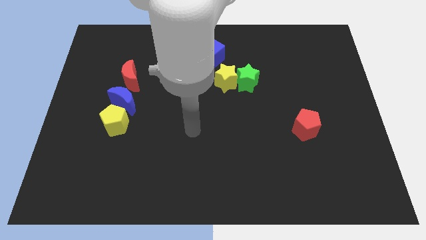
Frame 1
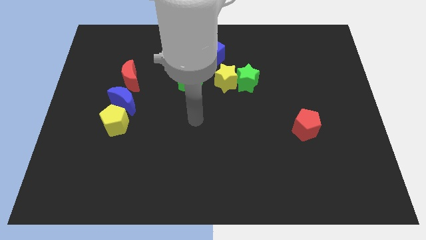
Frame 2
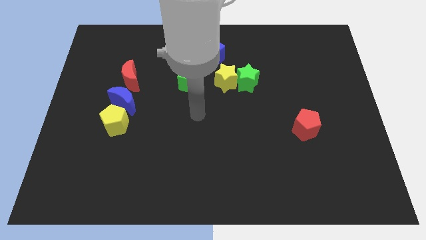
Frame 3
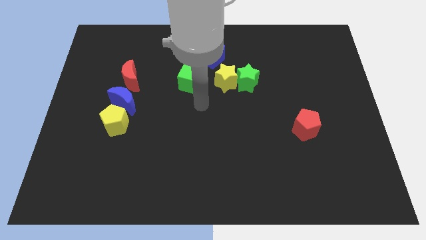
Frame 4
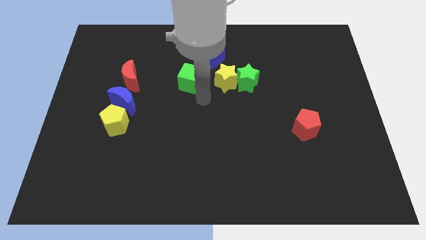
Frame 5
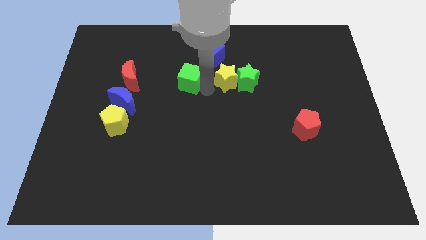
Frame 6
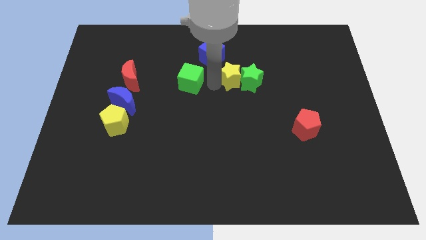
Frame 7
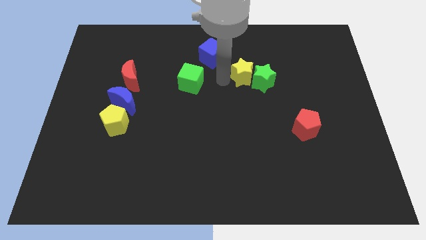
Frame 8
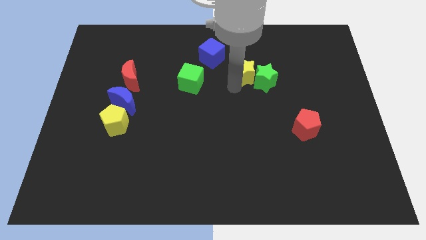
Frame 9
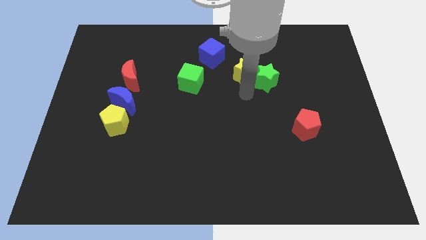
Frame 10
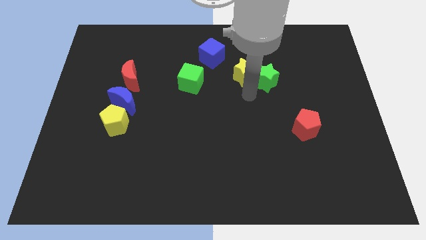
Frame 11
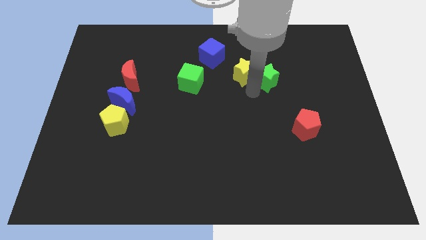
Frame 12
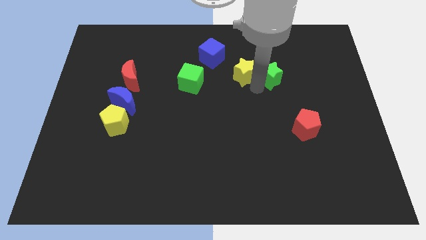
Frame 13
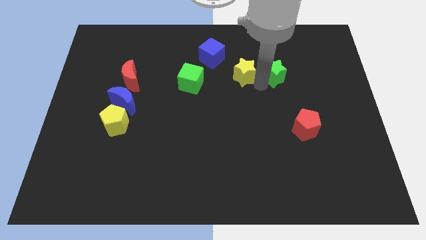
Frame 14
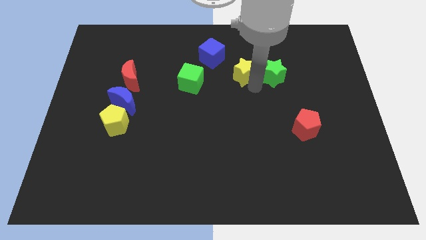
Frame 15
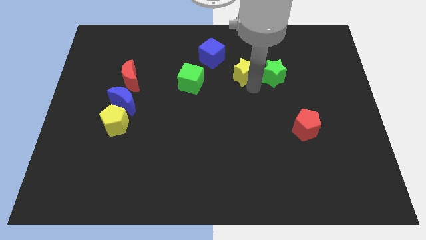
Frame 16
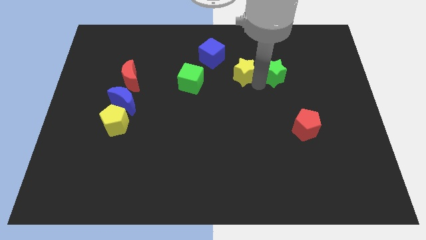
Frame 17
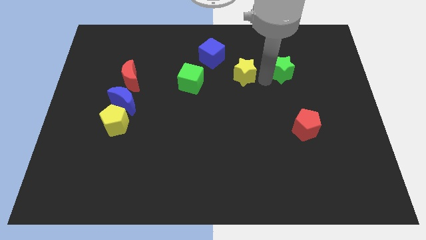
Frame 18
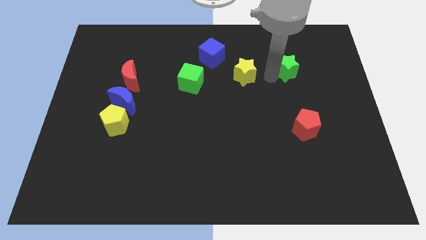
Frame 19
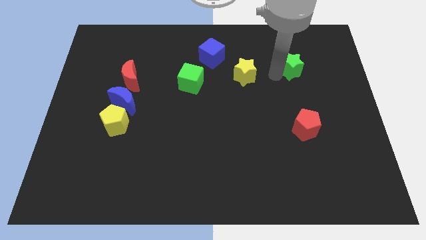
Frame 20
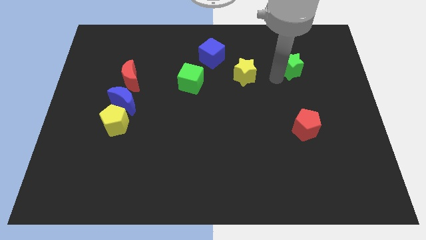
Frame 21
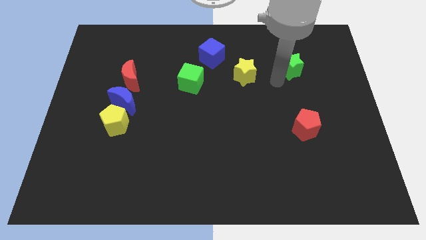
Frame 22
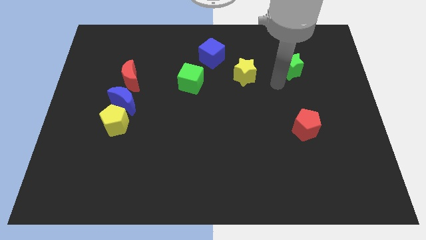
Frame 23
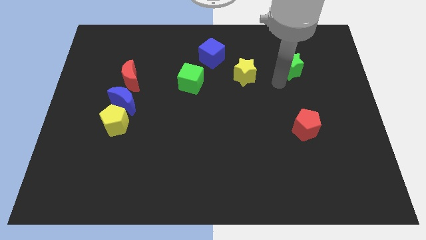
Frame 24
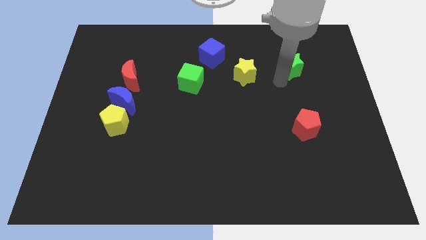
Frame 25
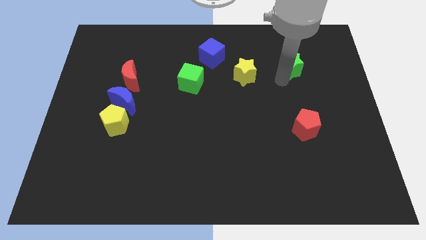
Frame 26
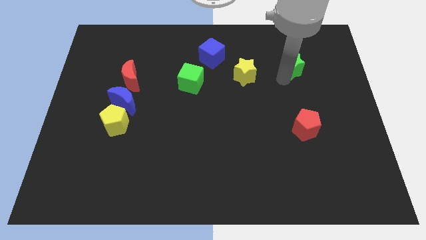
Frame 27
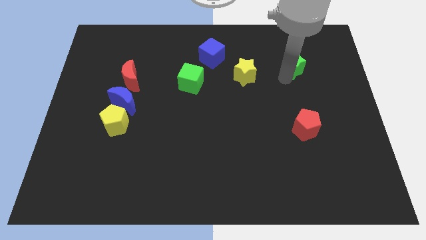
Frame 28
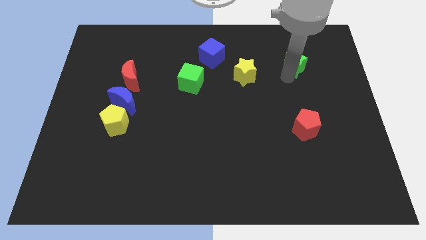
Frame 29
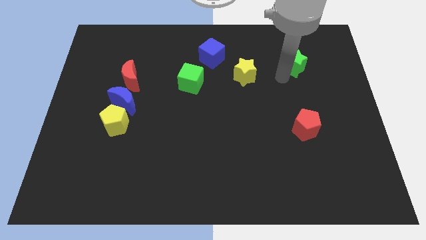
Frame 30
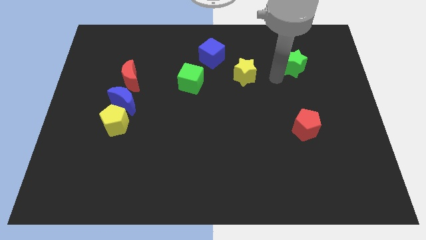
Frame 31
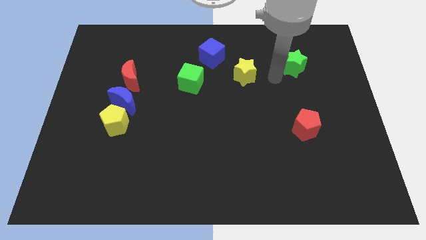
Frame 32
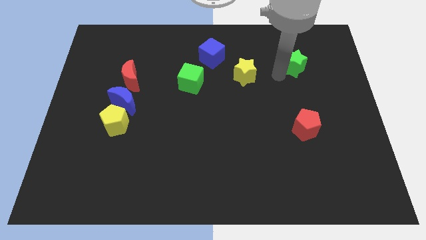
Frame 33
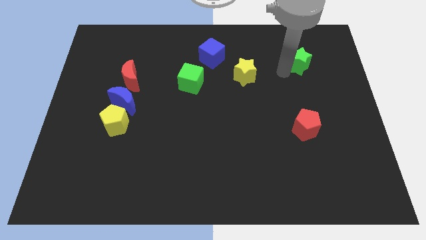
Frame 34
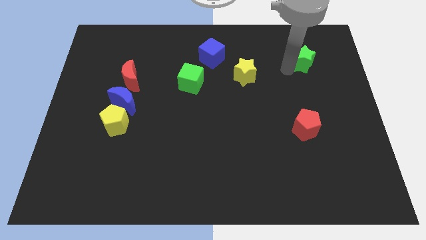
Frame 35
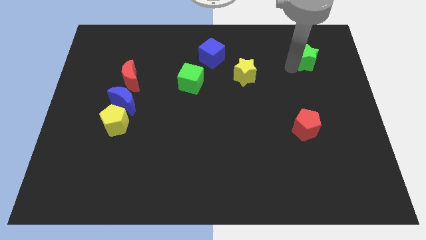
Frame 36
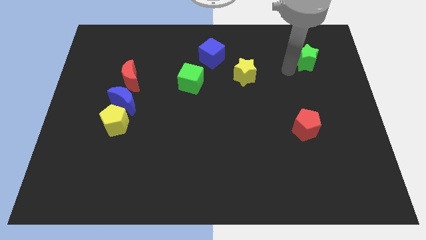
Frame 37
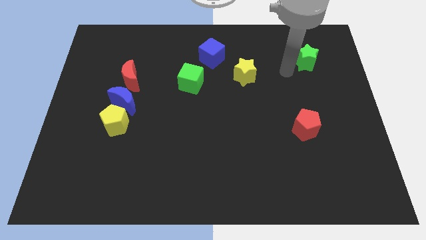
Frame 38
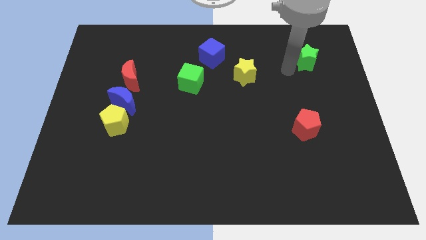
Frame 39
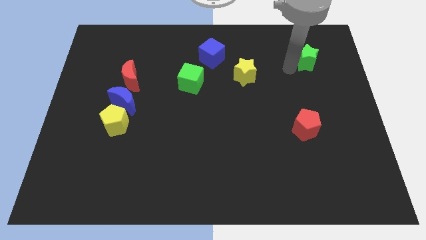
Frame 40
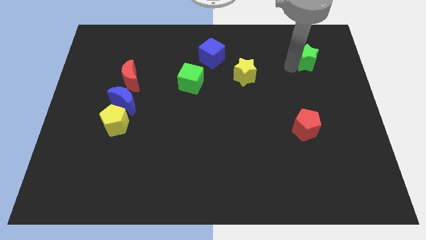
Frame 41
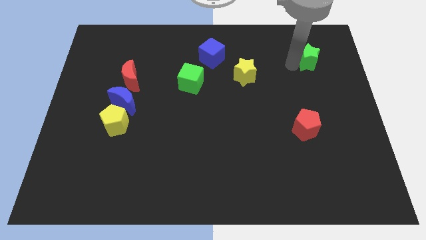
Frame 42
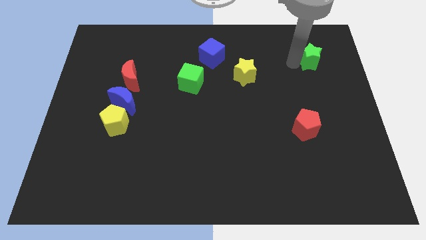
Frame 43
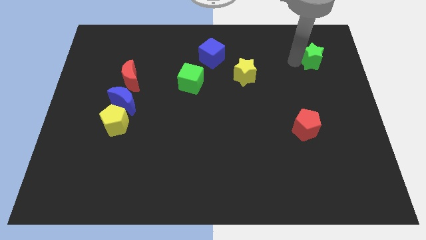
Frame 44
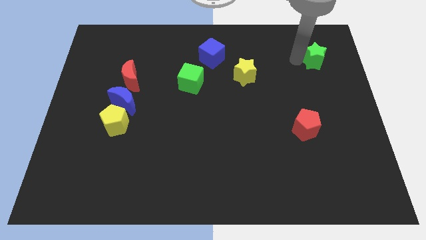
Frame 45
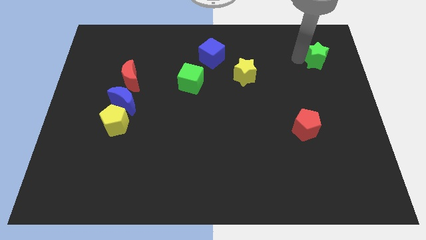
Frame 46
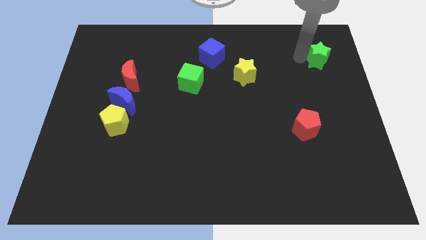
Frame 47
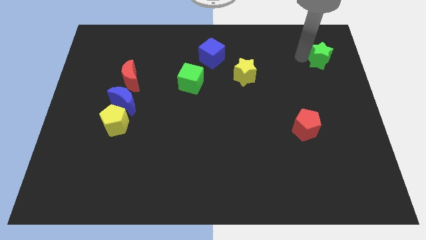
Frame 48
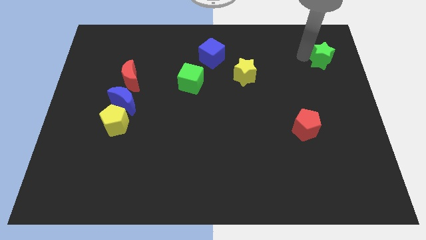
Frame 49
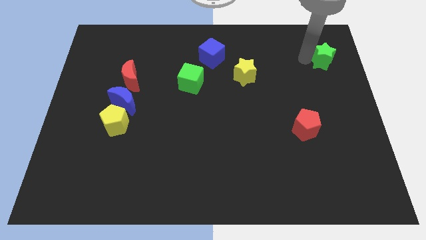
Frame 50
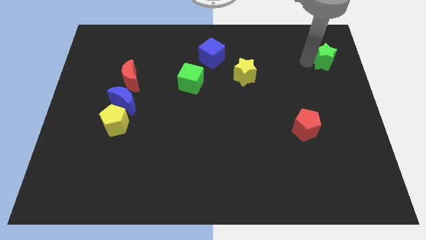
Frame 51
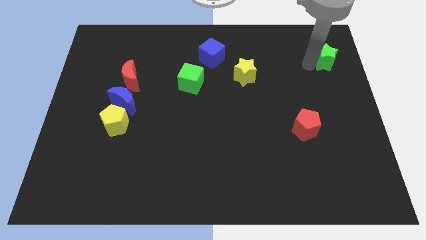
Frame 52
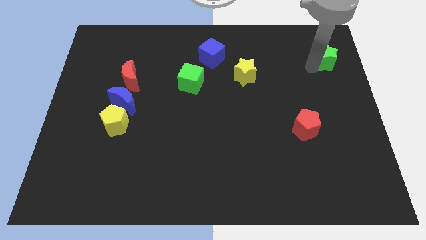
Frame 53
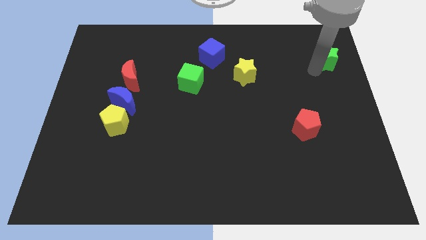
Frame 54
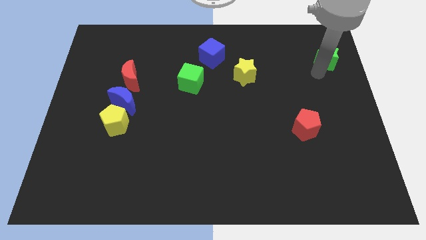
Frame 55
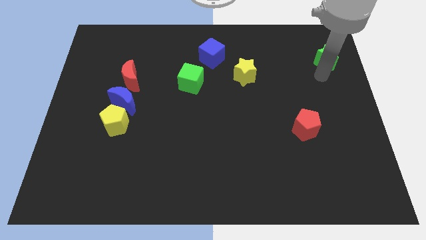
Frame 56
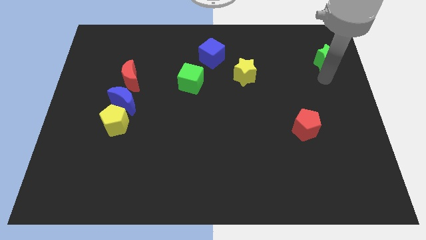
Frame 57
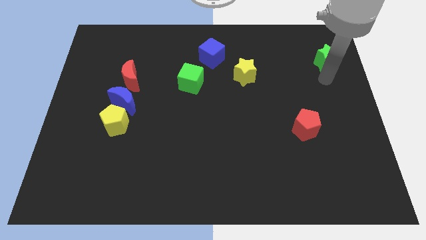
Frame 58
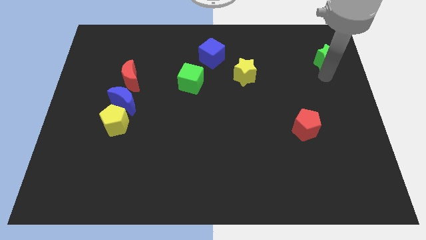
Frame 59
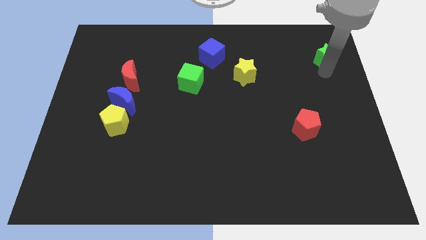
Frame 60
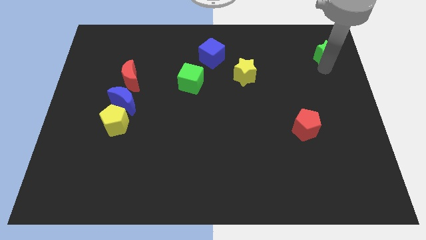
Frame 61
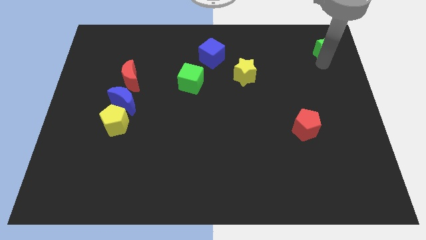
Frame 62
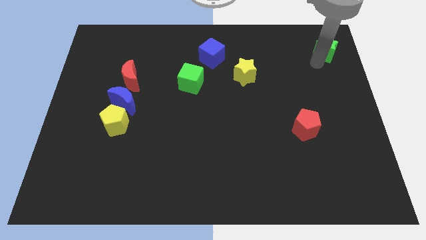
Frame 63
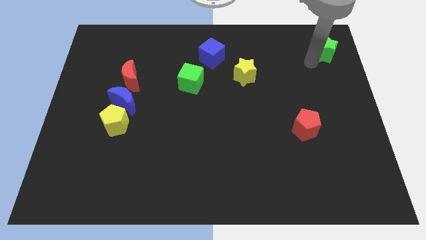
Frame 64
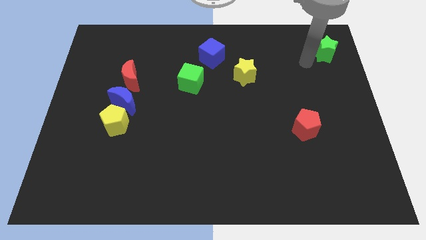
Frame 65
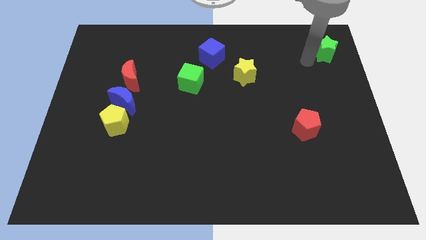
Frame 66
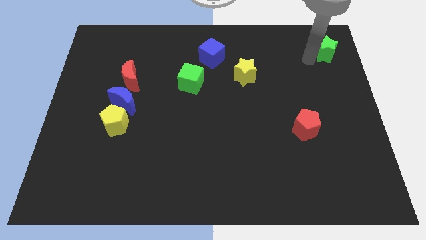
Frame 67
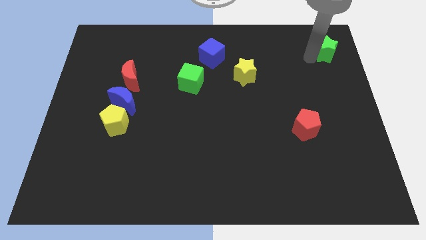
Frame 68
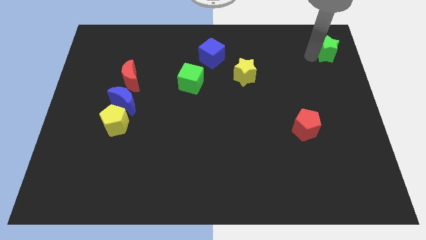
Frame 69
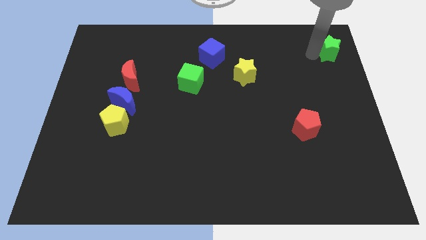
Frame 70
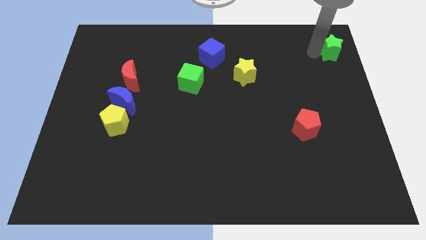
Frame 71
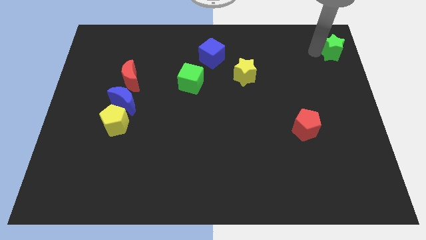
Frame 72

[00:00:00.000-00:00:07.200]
push the green star to the upper right corner
